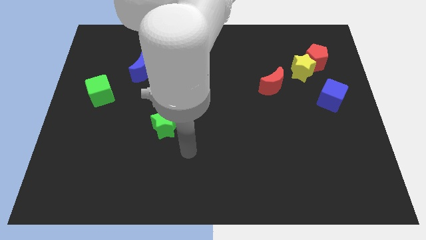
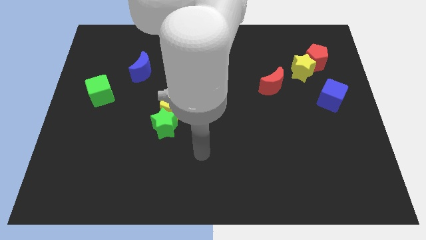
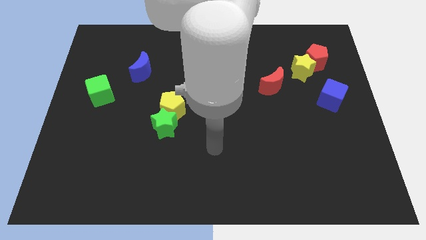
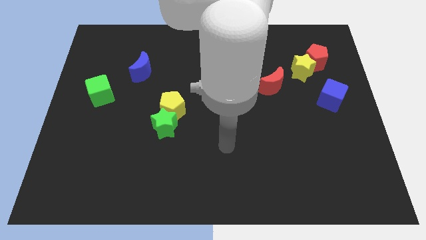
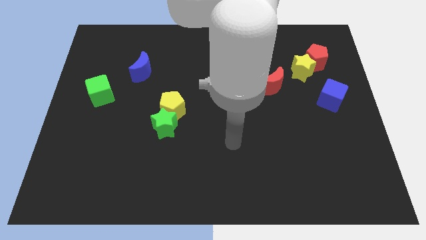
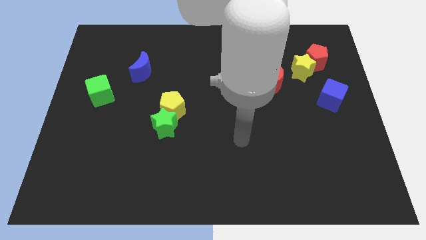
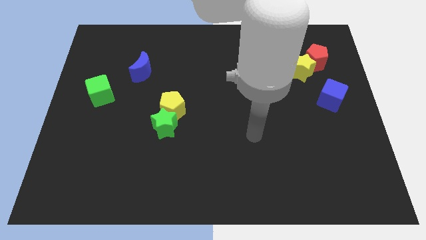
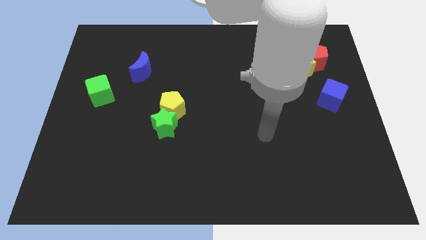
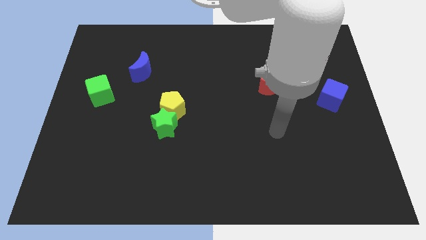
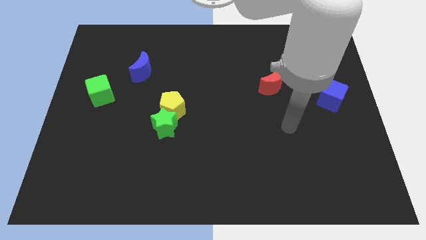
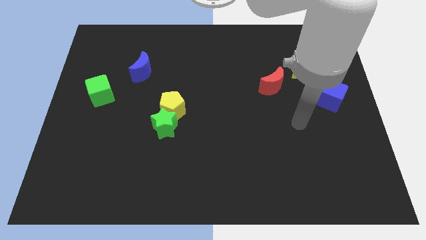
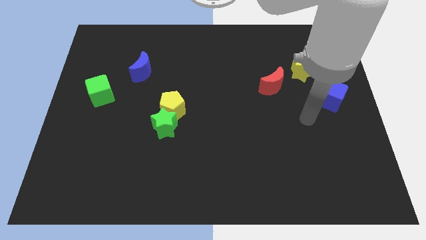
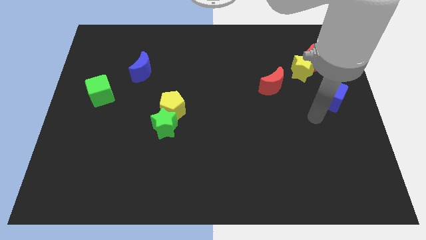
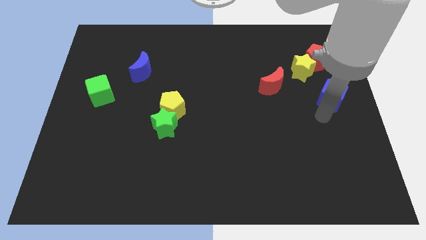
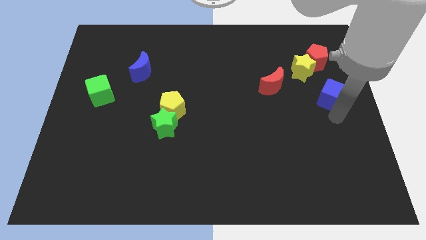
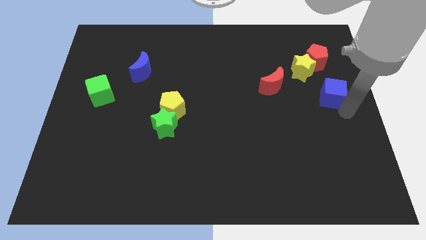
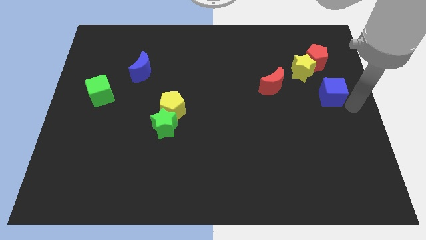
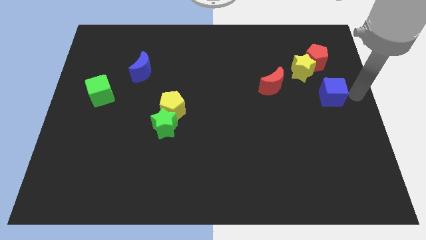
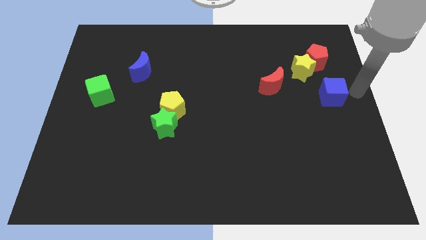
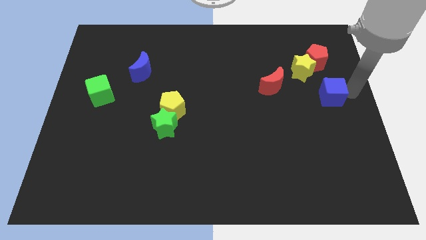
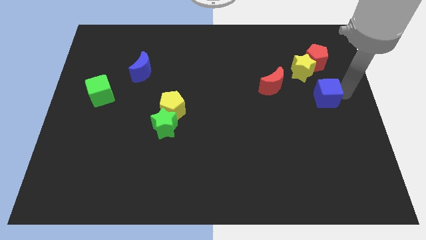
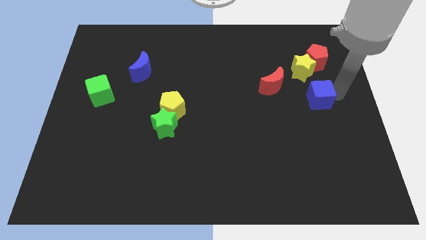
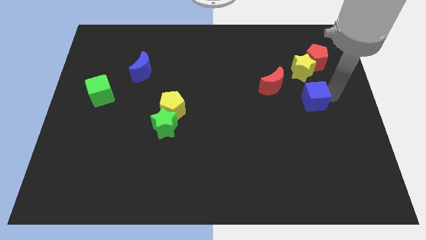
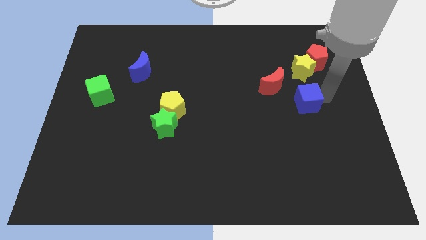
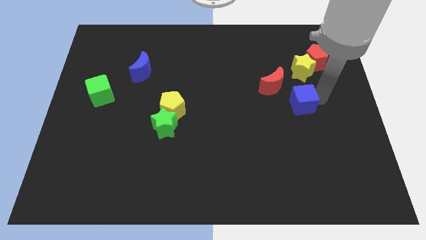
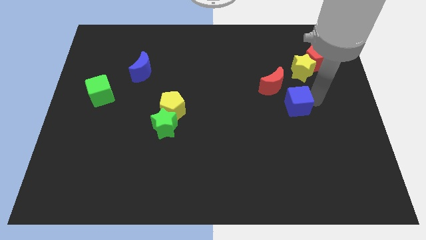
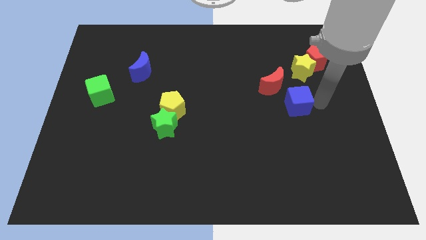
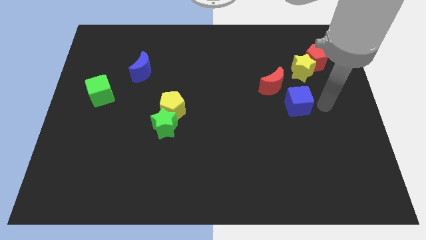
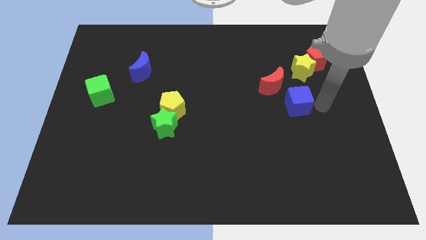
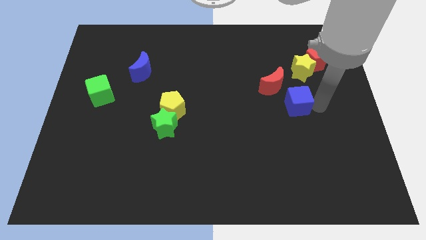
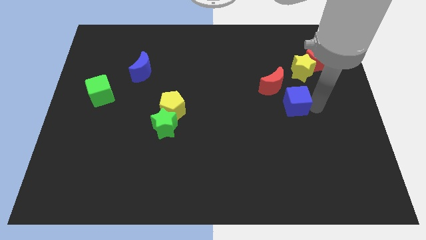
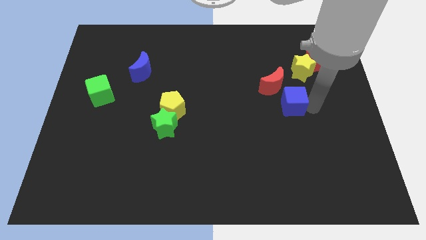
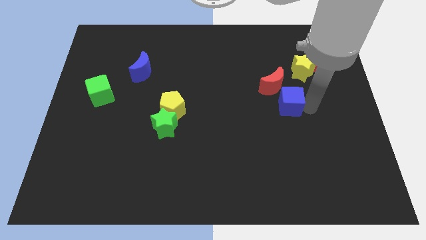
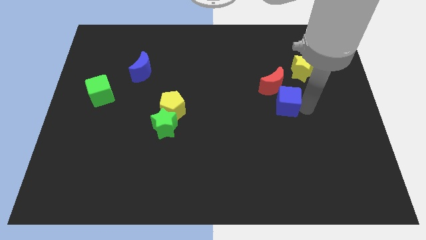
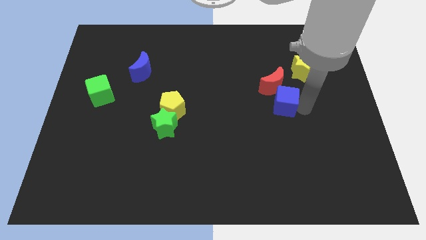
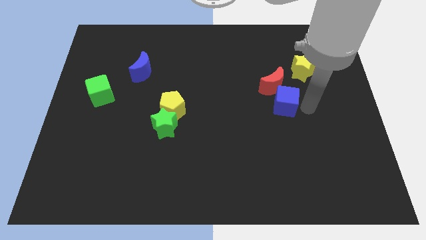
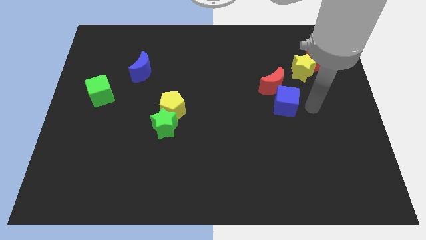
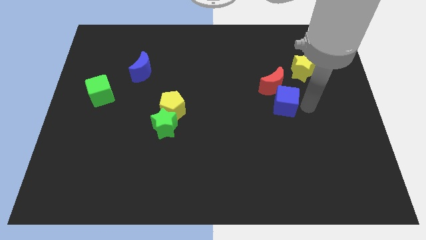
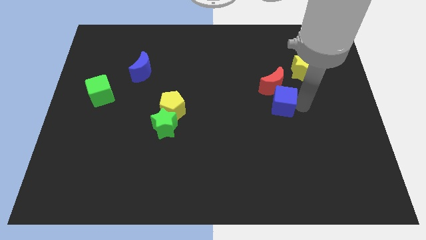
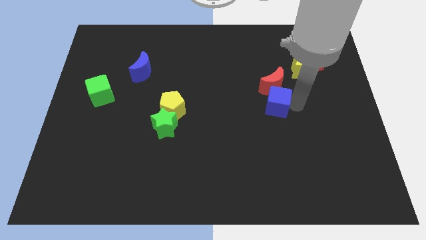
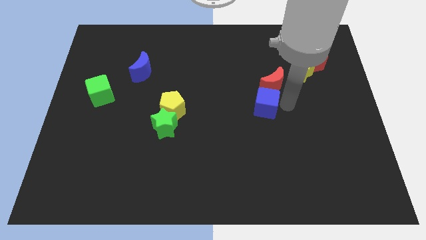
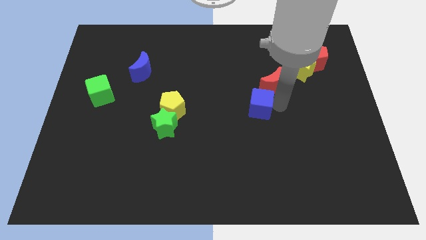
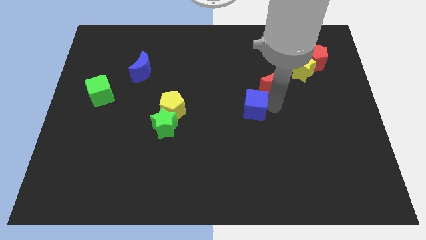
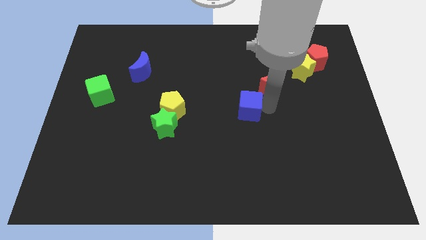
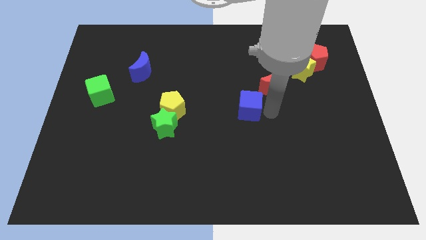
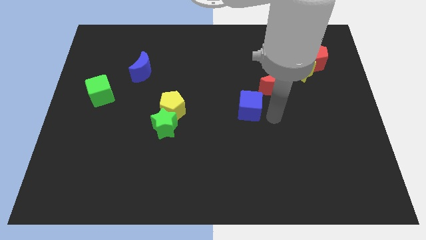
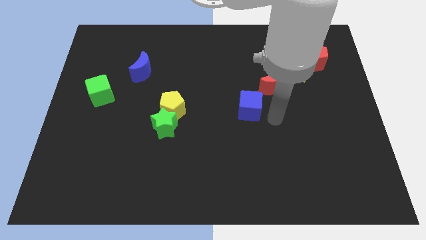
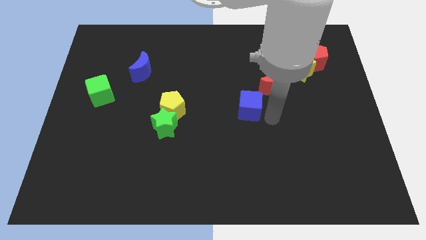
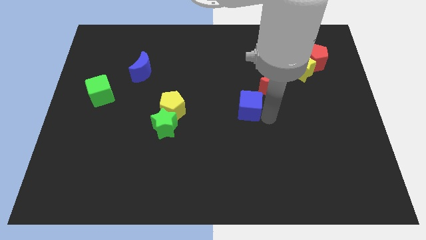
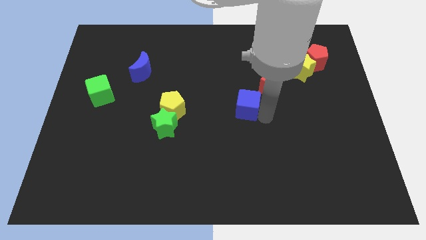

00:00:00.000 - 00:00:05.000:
slide the blue cube left

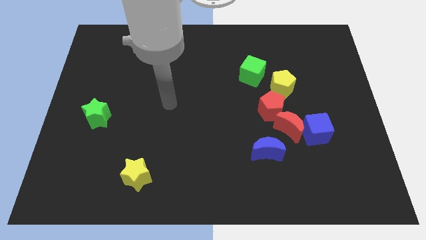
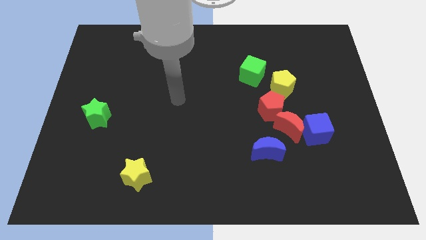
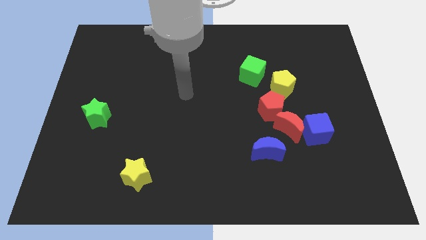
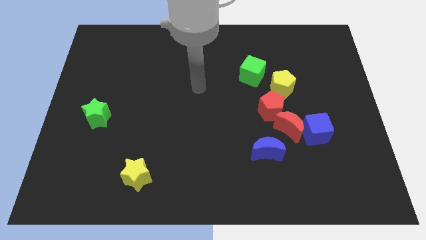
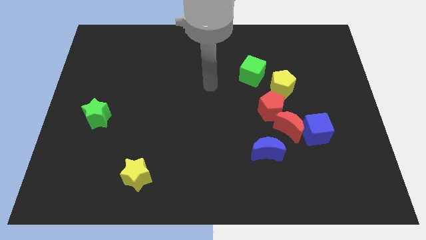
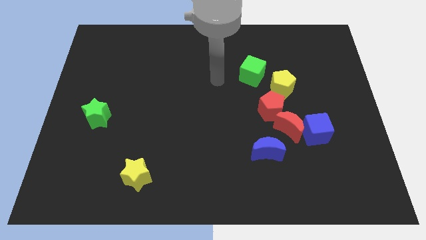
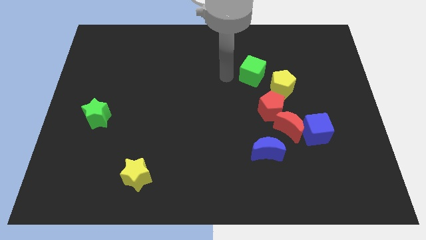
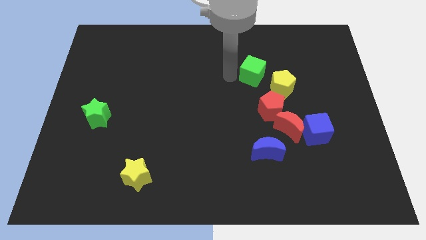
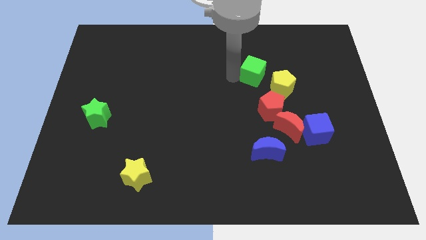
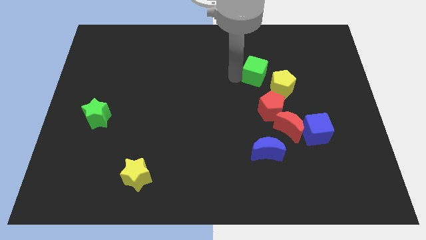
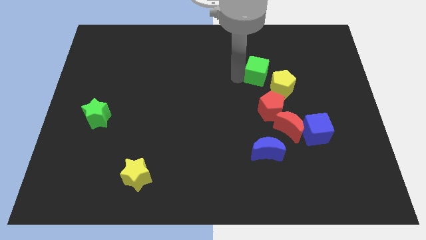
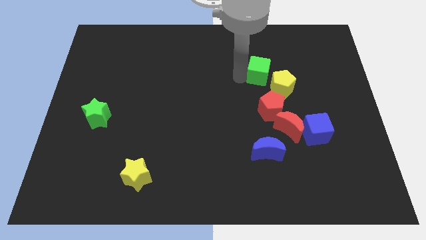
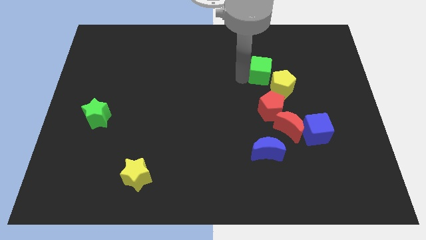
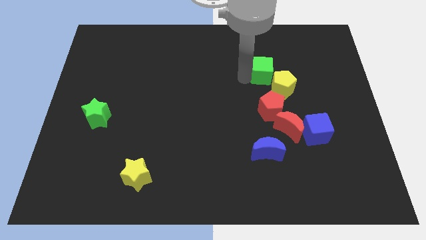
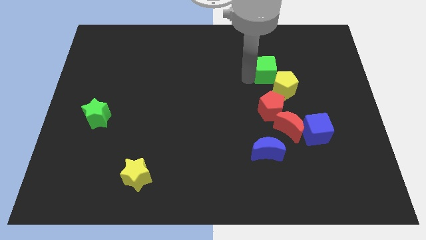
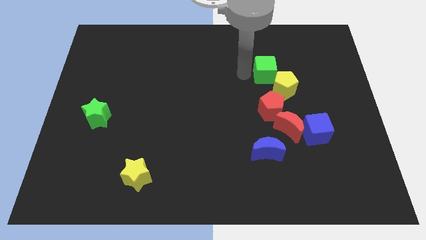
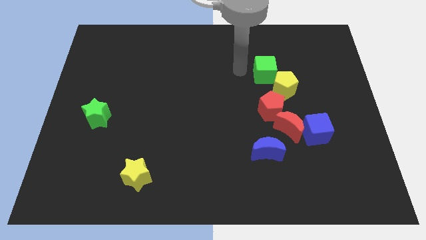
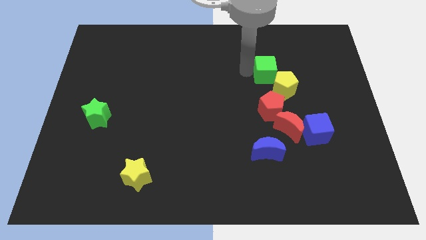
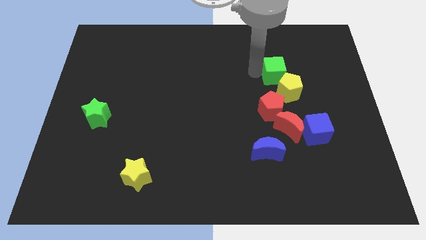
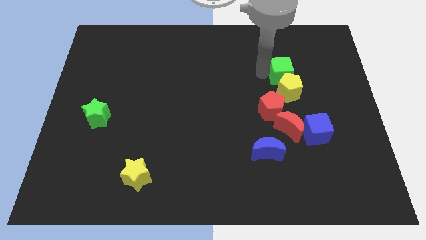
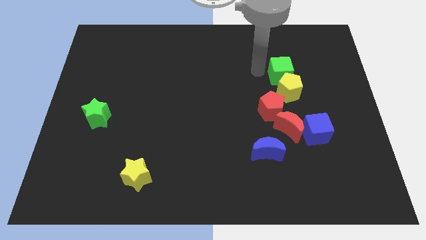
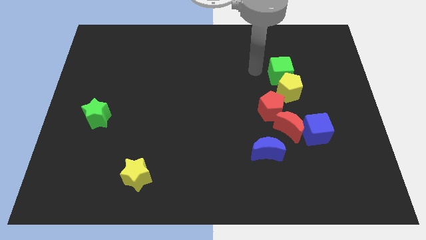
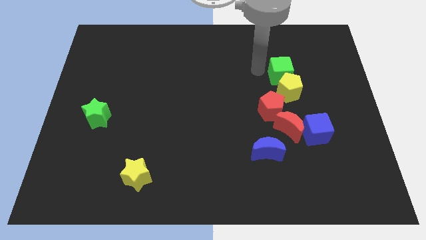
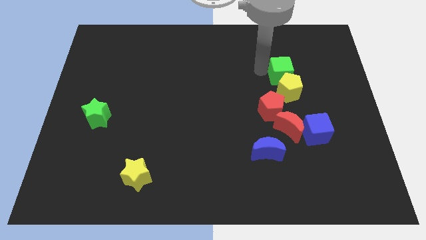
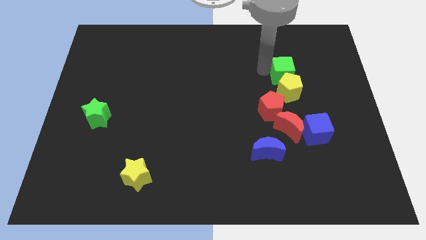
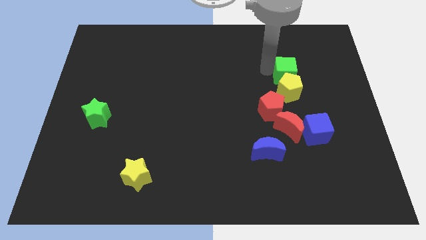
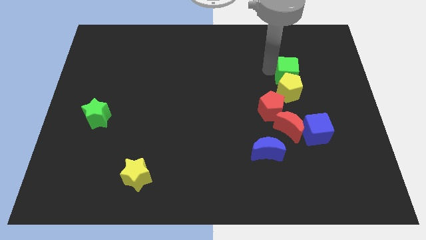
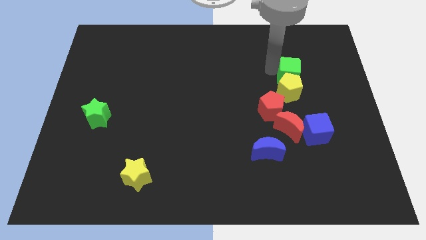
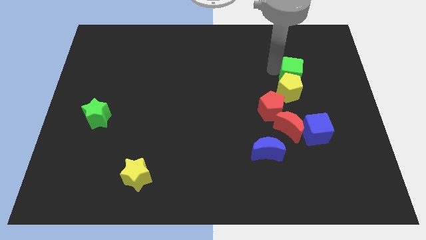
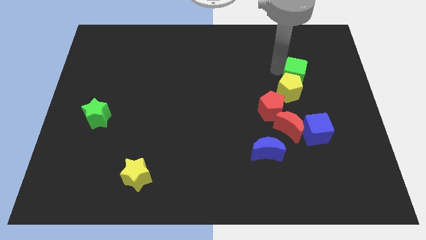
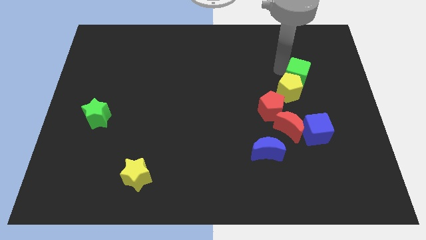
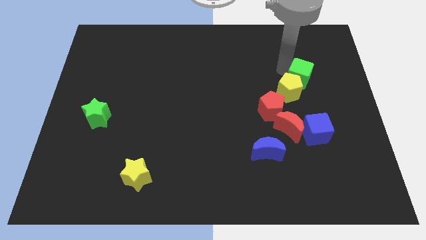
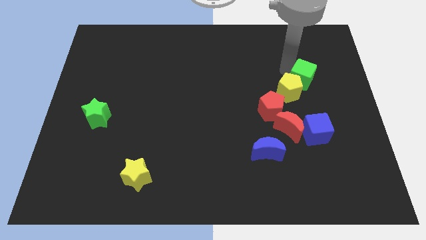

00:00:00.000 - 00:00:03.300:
push the green cube downwards and then to the right a bit
